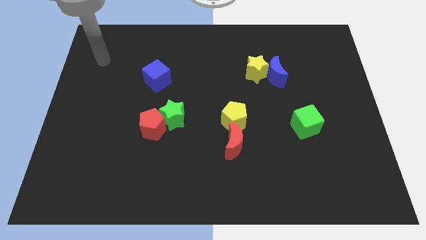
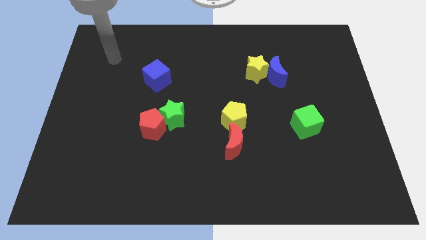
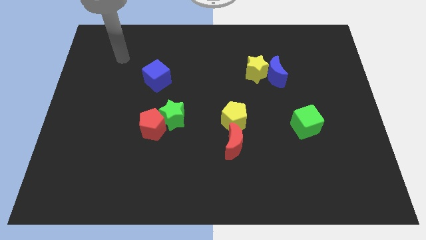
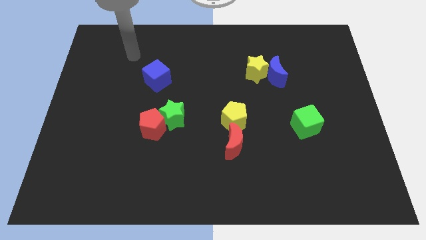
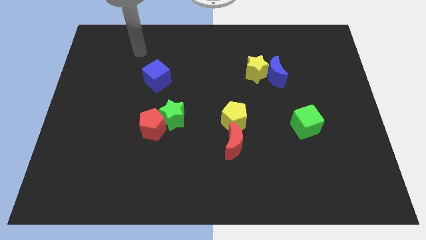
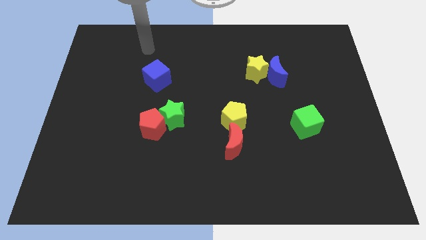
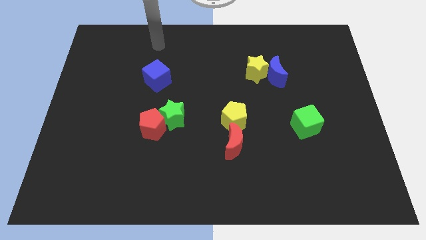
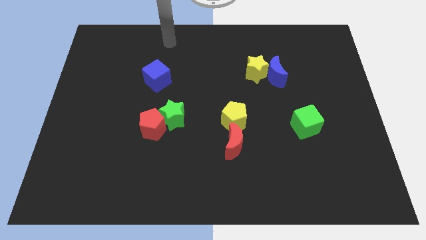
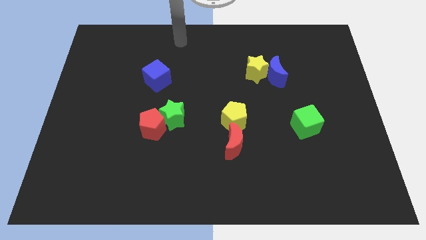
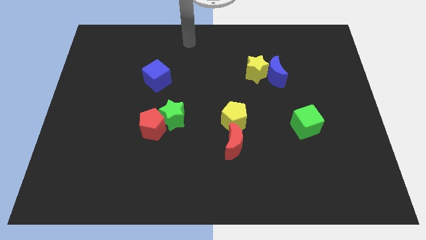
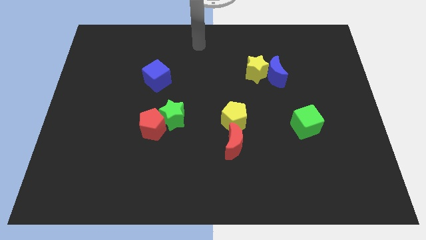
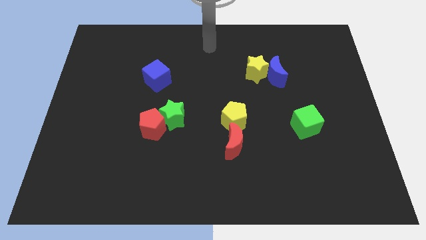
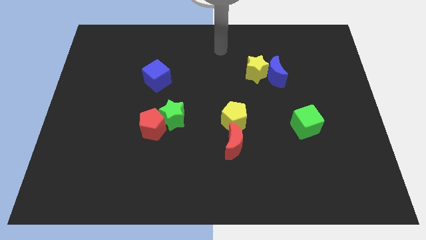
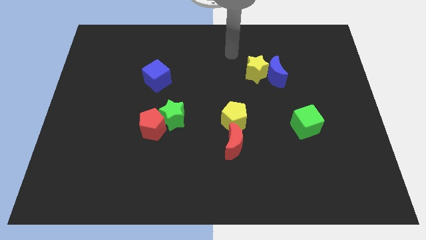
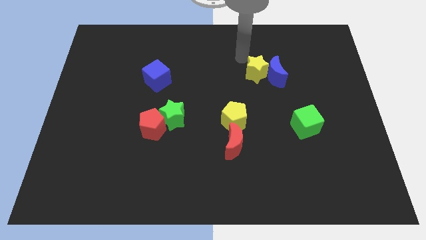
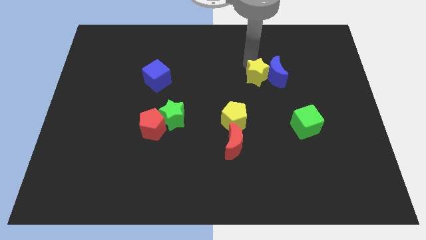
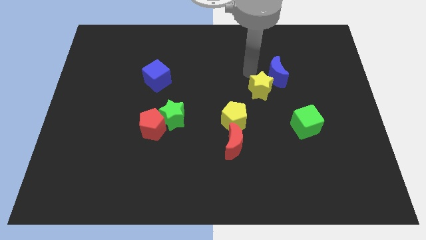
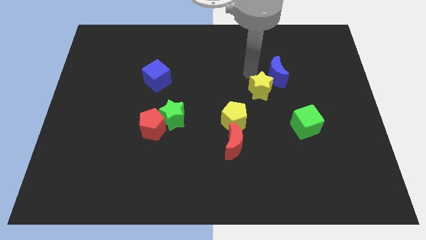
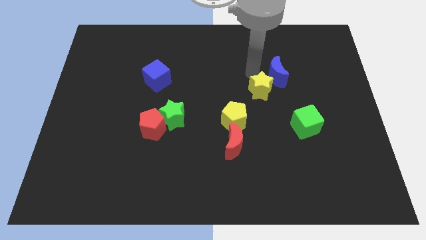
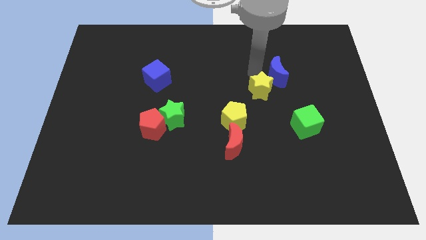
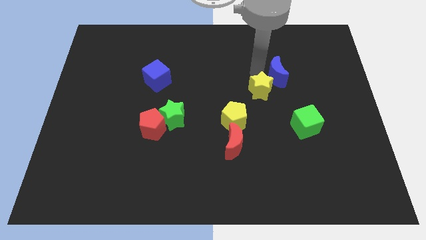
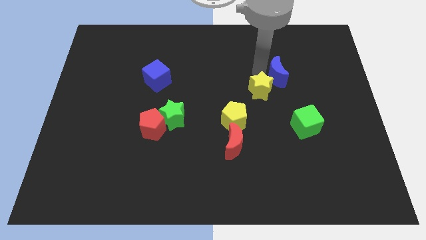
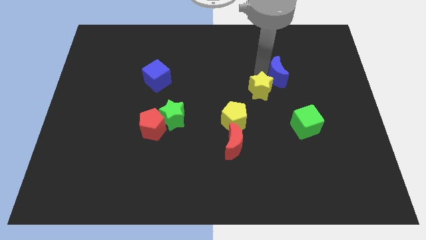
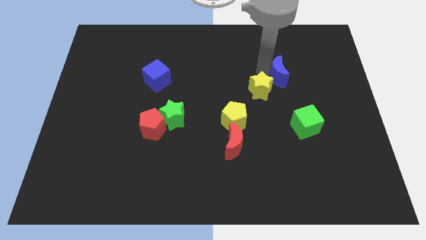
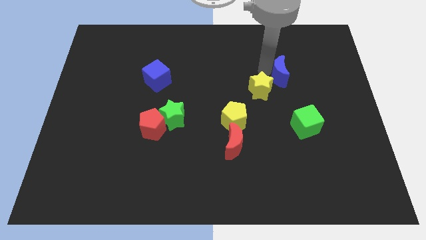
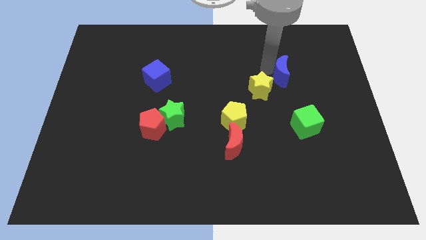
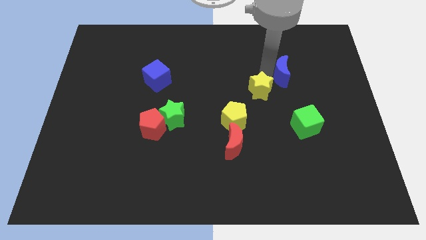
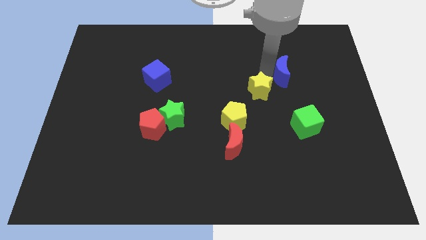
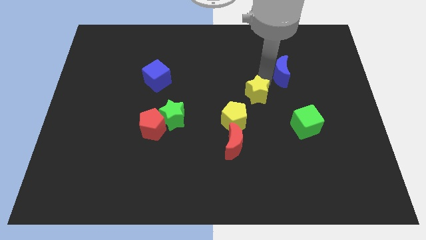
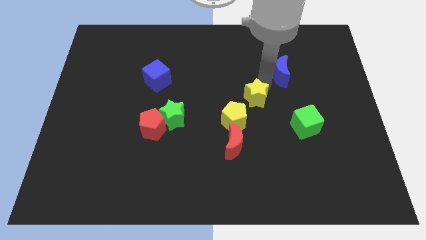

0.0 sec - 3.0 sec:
separate the blue moon from the yellow star

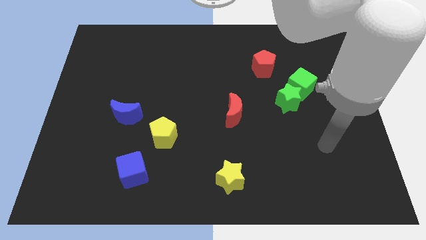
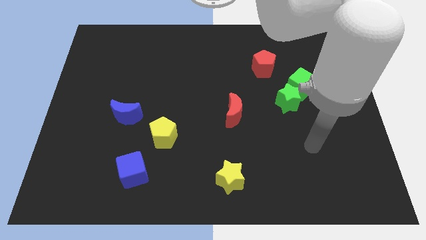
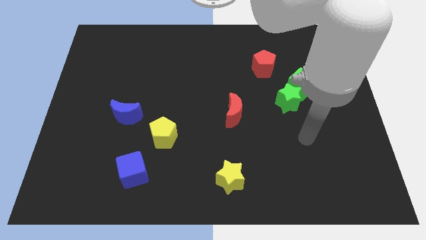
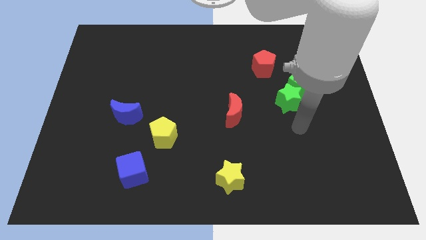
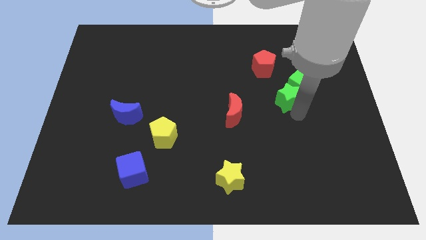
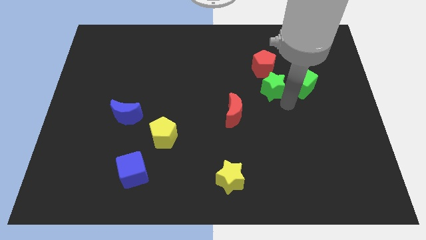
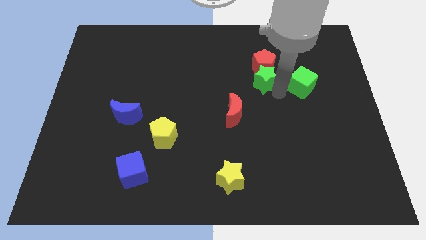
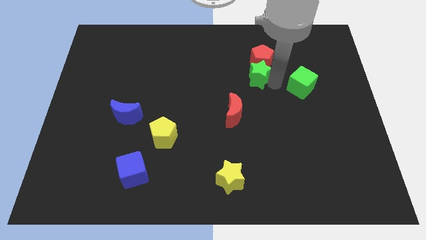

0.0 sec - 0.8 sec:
separate the green cube from the green star

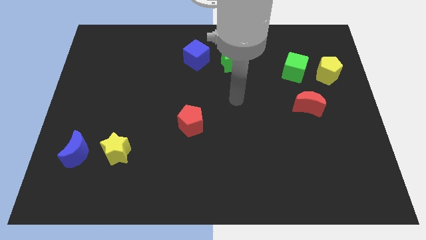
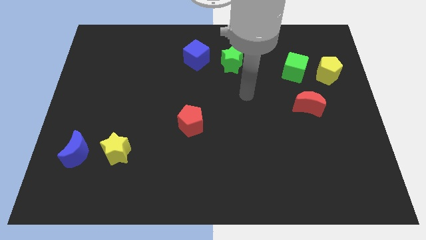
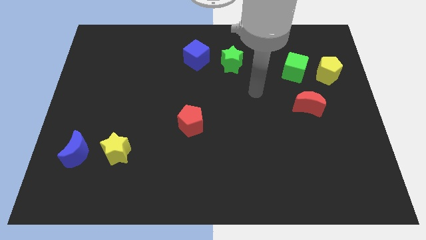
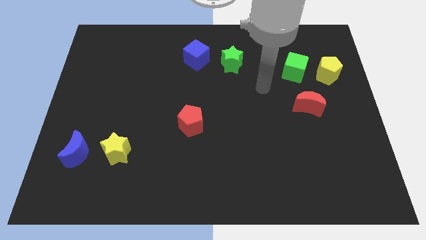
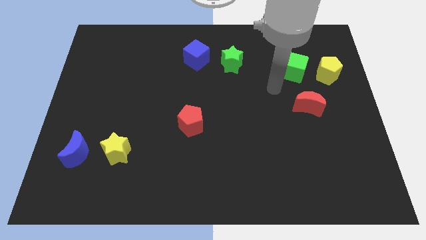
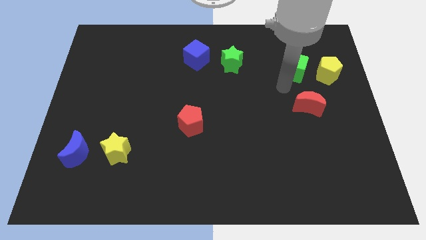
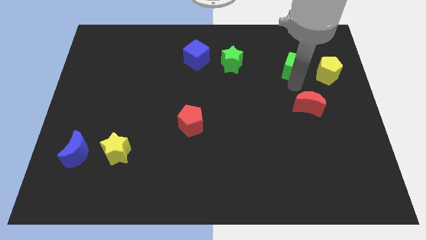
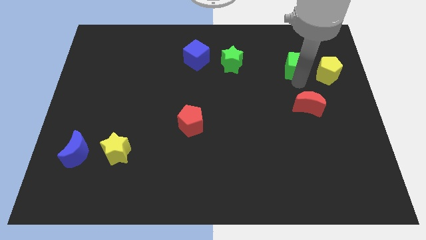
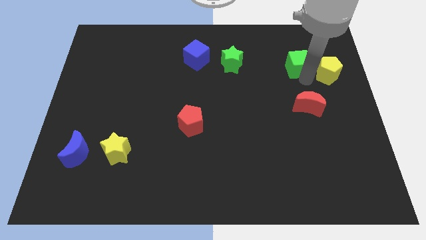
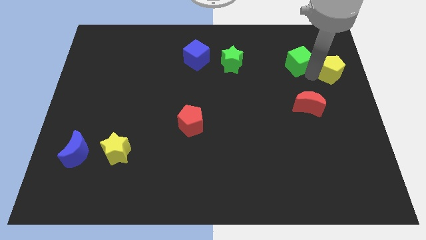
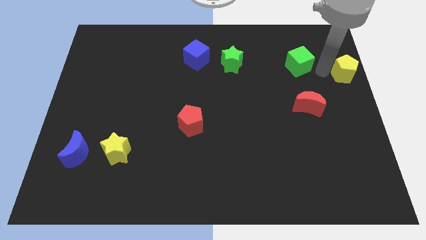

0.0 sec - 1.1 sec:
move the green cube away from the yellow pentagon

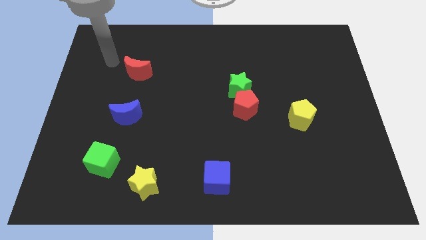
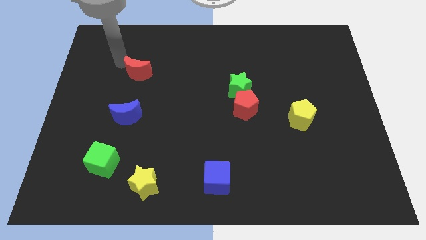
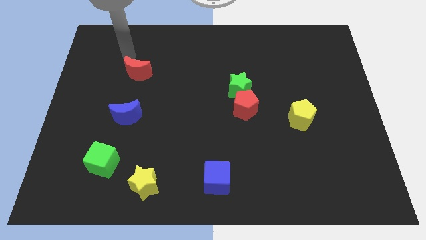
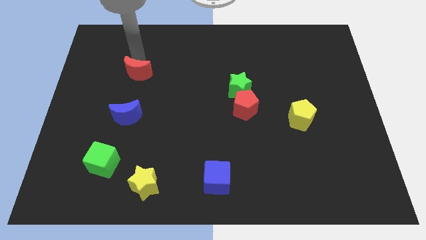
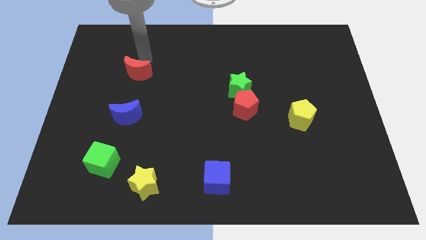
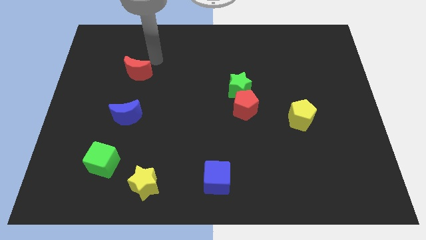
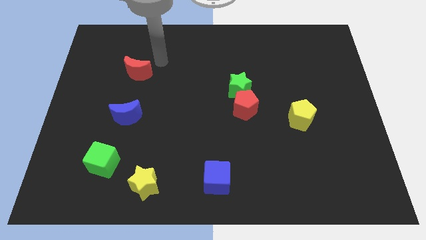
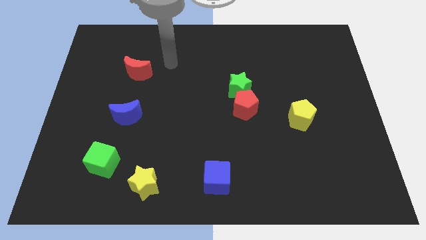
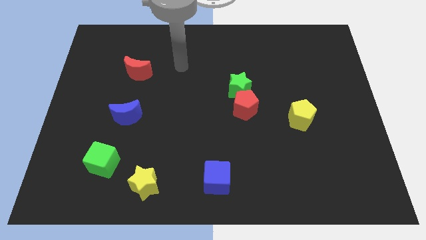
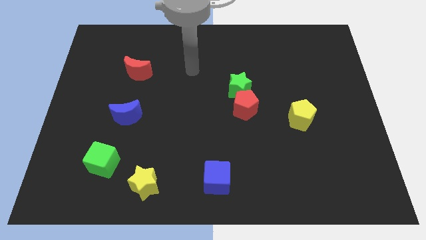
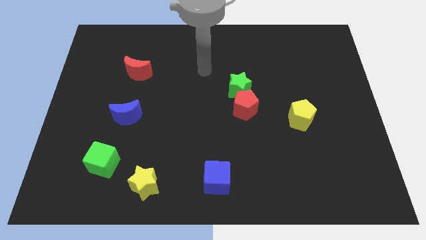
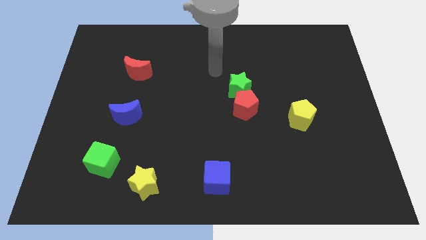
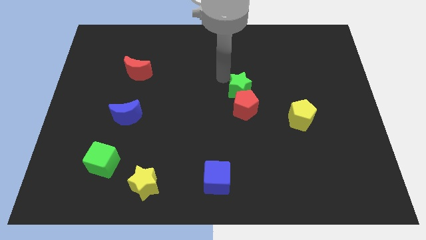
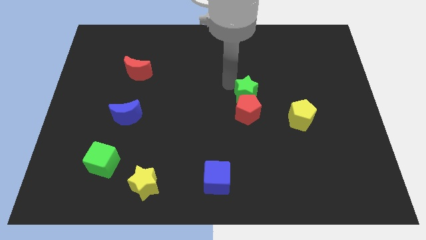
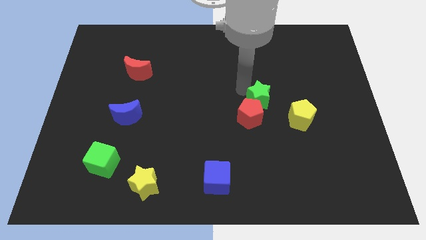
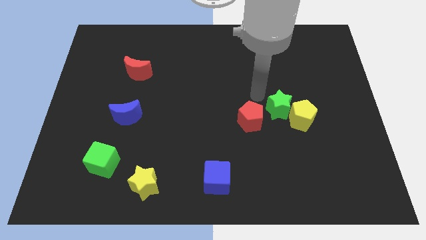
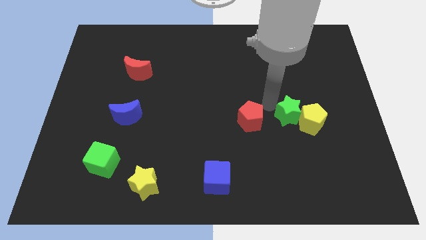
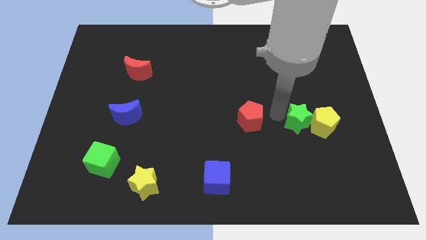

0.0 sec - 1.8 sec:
pull the red pentagon apart from the green star

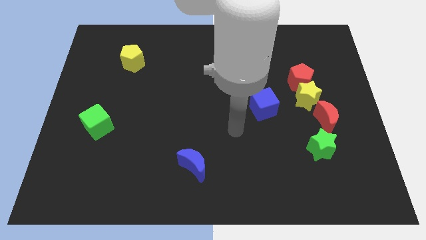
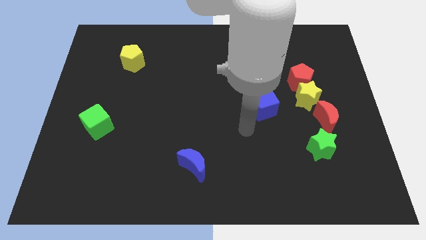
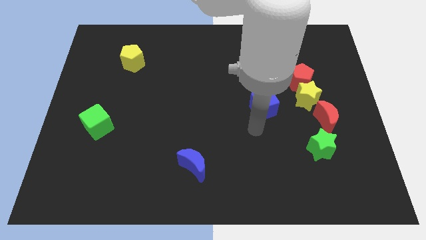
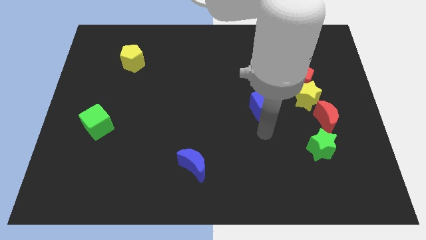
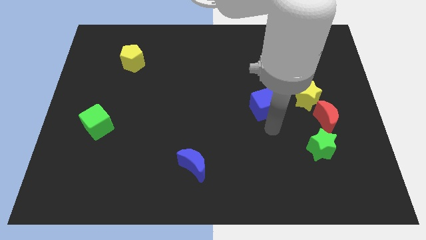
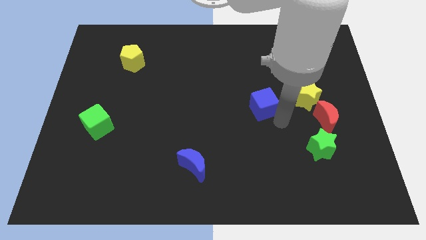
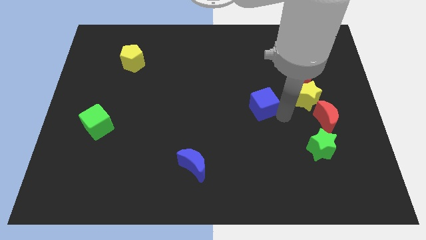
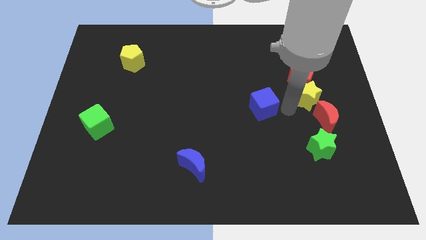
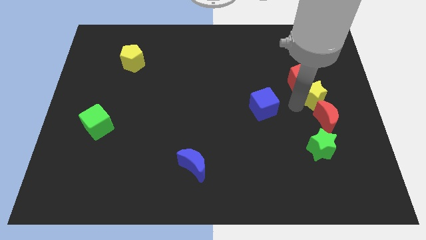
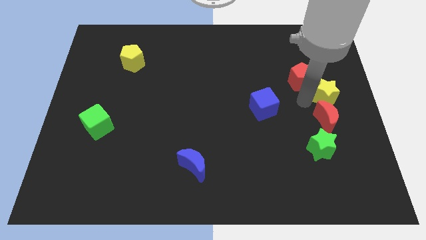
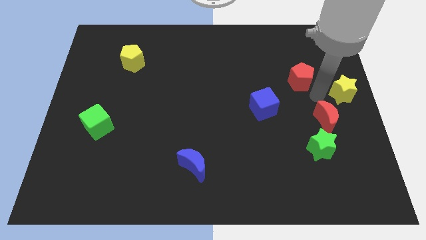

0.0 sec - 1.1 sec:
separate the red pentagon from the yellow star

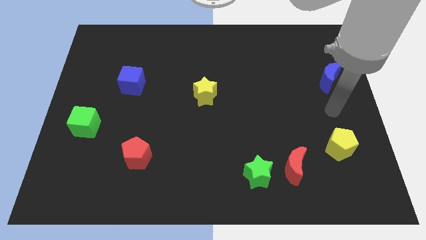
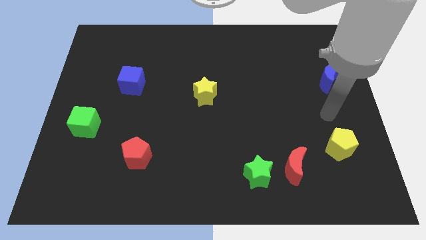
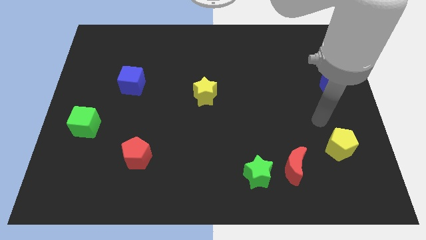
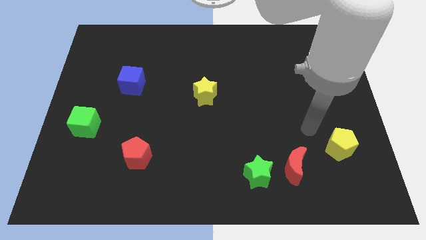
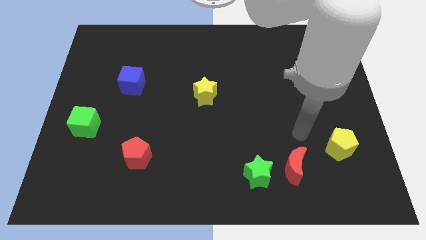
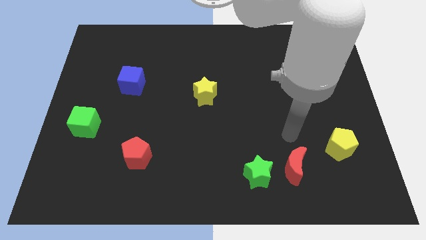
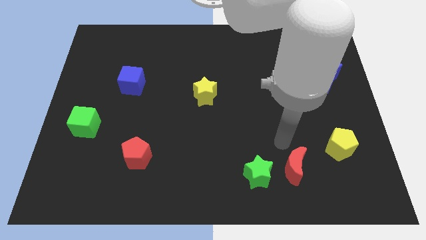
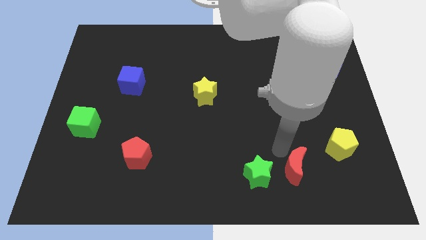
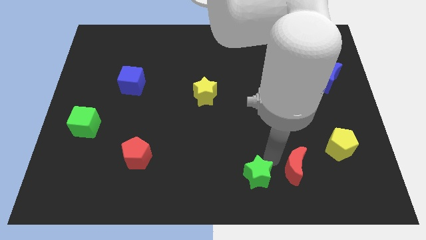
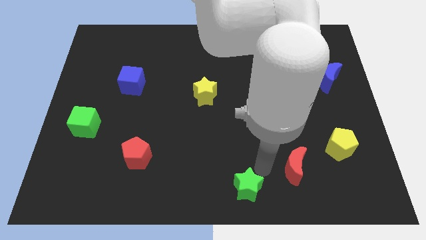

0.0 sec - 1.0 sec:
pull the red moon apart from the green star

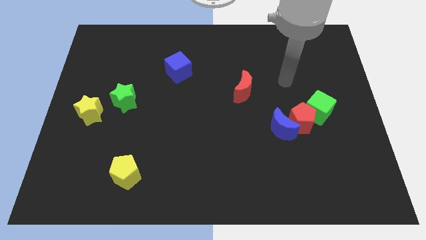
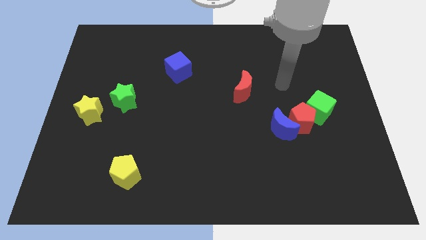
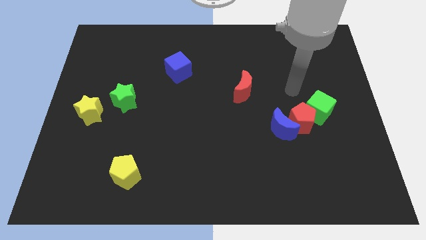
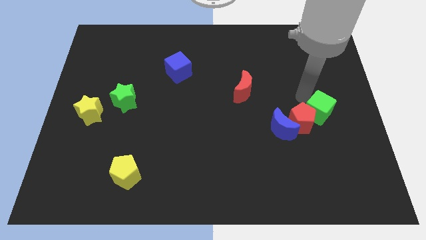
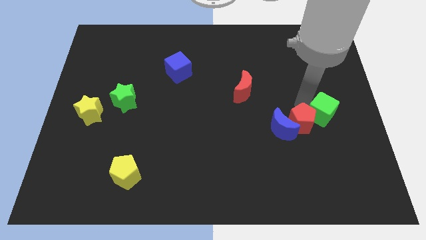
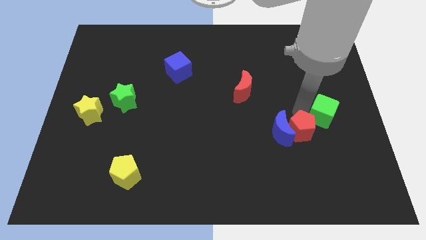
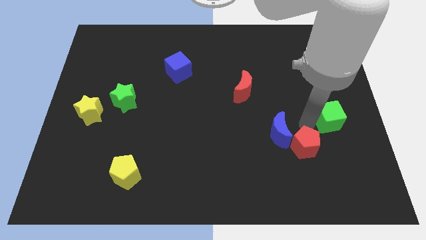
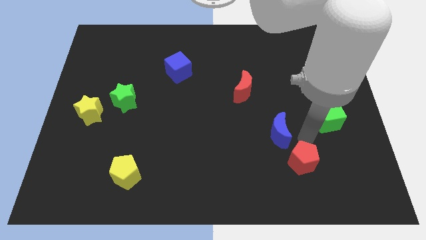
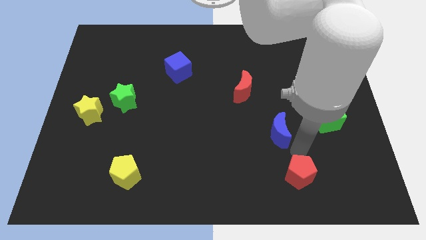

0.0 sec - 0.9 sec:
move the blue moon away from the red pentagon
